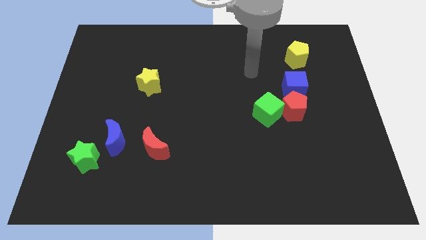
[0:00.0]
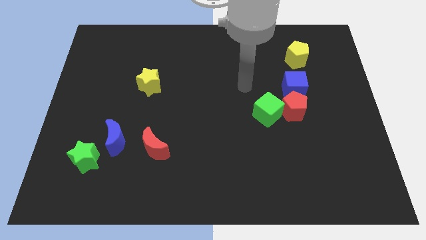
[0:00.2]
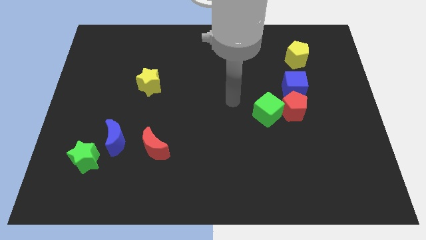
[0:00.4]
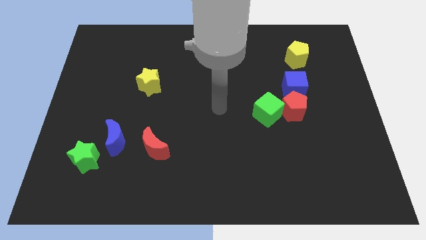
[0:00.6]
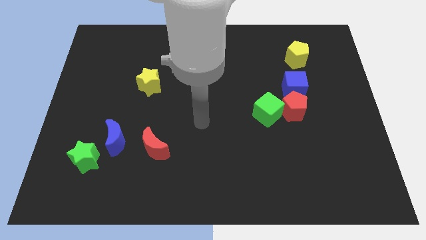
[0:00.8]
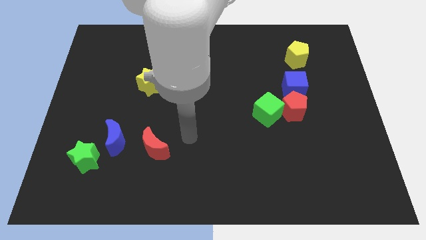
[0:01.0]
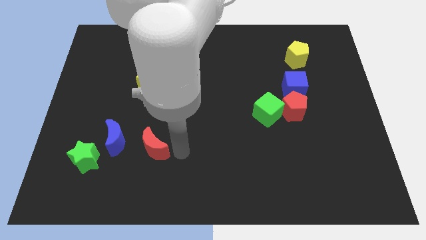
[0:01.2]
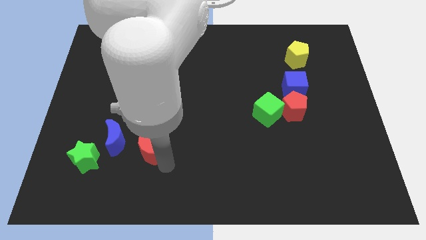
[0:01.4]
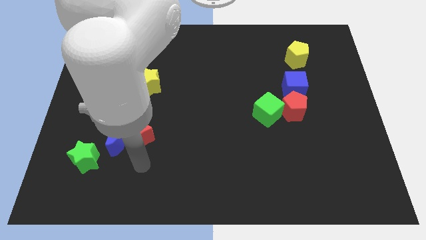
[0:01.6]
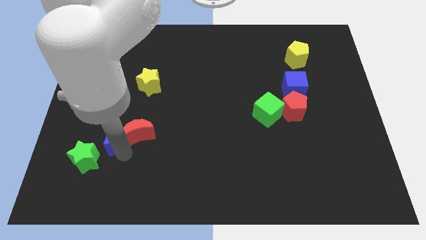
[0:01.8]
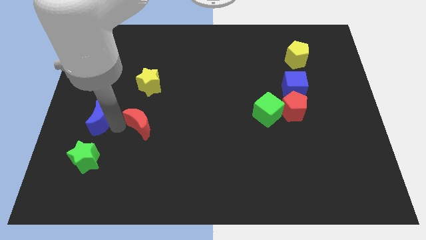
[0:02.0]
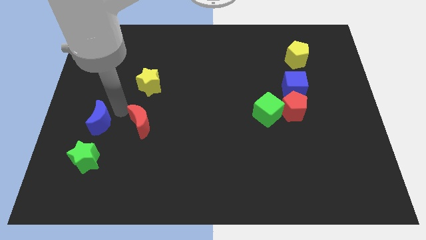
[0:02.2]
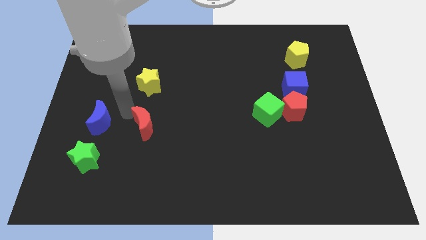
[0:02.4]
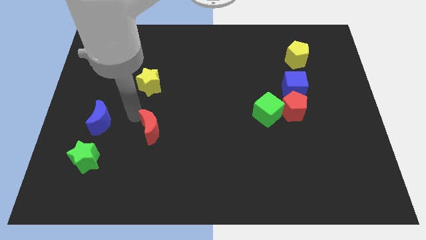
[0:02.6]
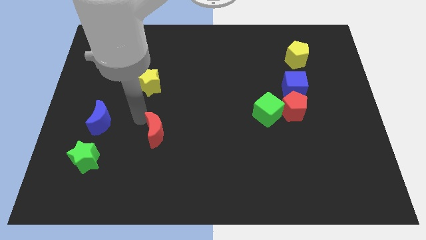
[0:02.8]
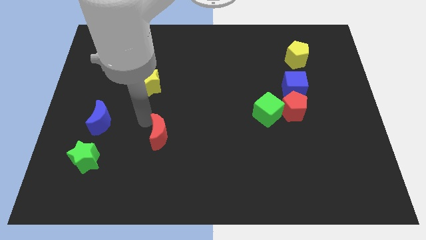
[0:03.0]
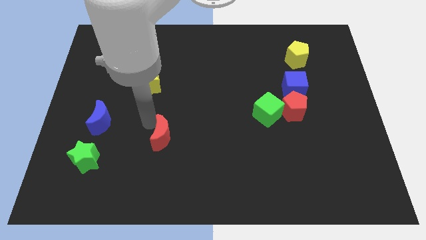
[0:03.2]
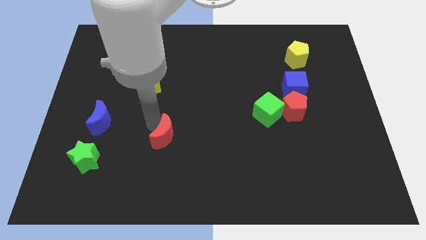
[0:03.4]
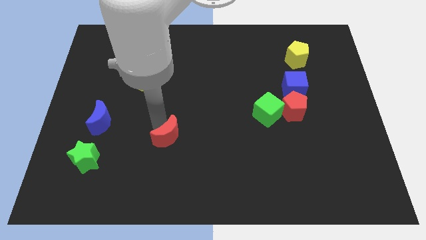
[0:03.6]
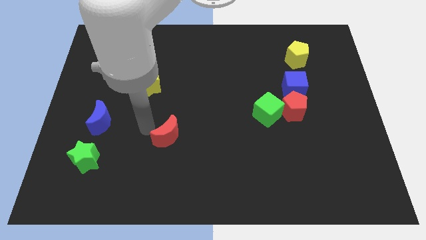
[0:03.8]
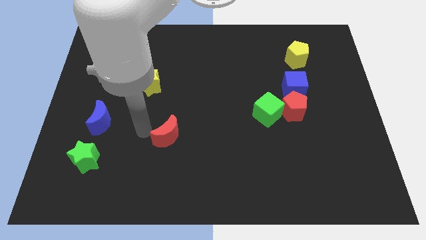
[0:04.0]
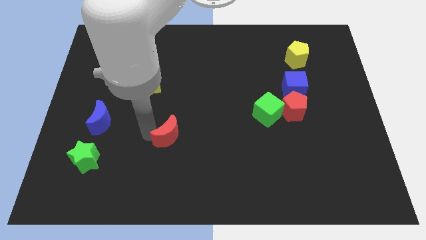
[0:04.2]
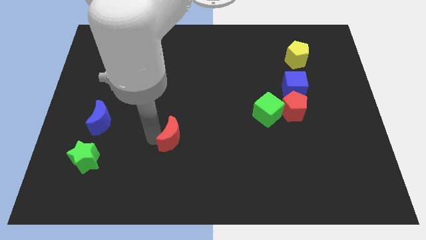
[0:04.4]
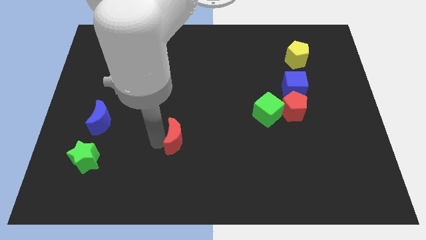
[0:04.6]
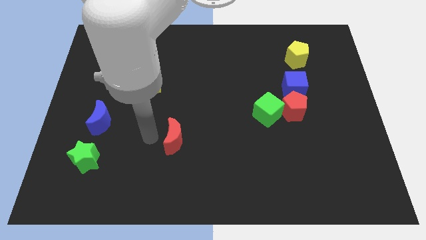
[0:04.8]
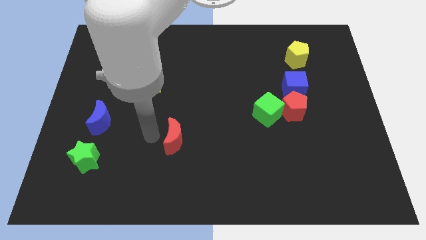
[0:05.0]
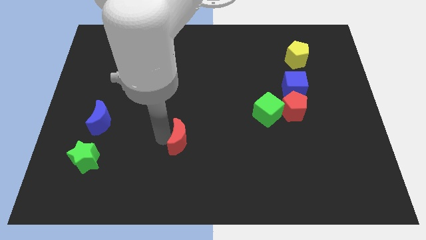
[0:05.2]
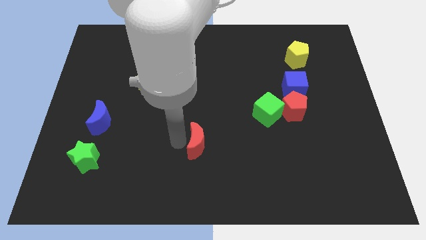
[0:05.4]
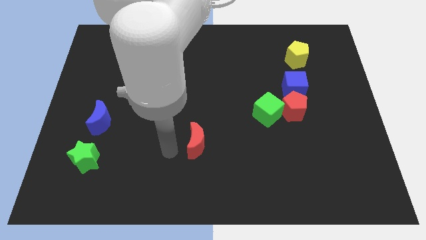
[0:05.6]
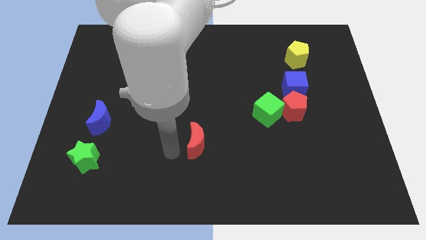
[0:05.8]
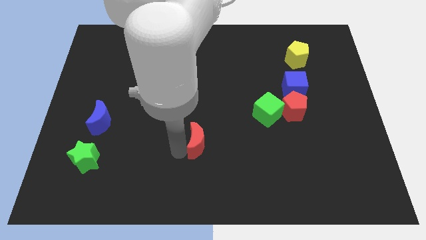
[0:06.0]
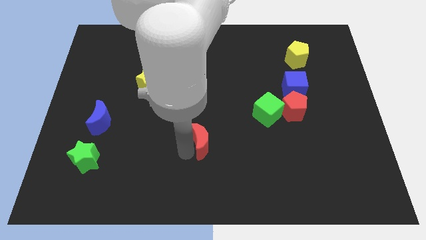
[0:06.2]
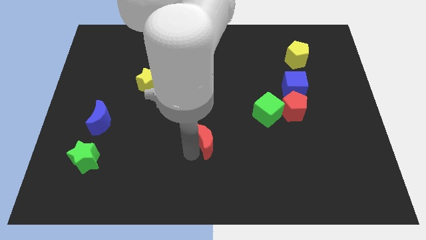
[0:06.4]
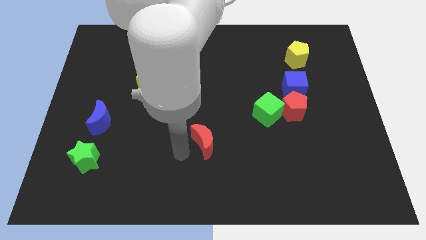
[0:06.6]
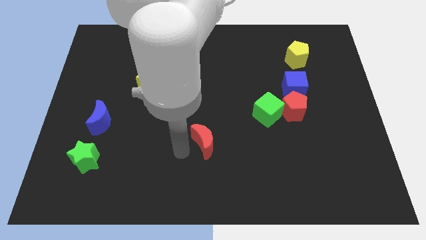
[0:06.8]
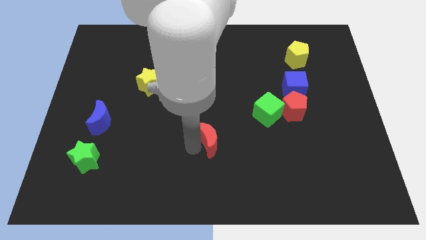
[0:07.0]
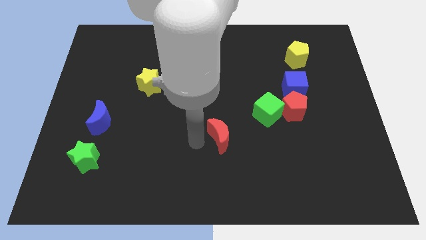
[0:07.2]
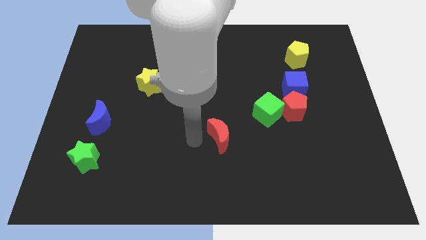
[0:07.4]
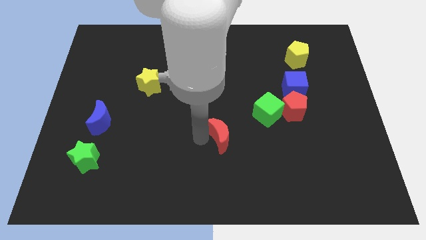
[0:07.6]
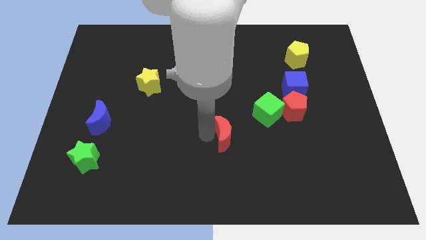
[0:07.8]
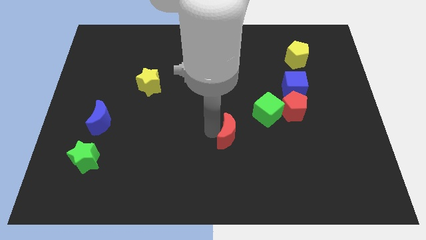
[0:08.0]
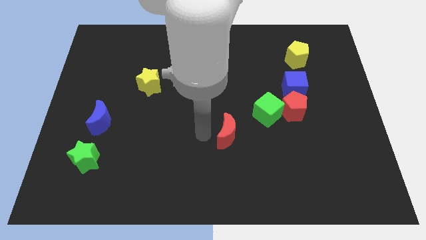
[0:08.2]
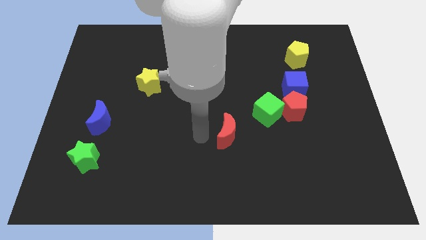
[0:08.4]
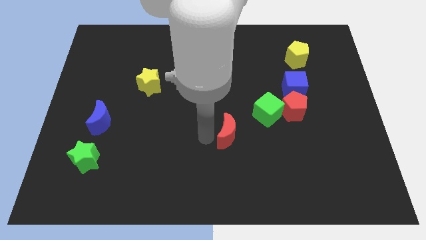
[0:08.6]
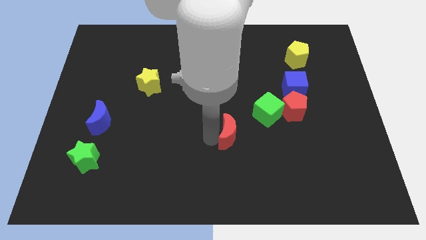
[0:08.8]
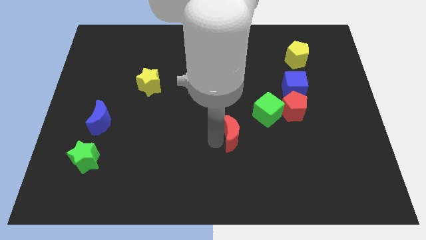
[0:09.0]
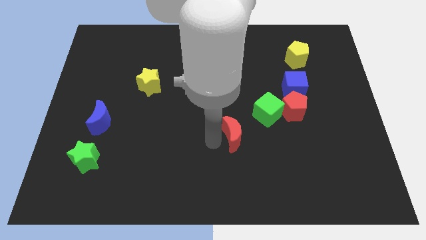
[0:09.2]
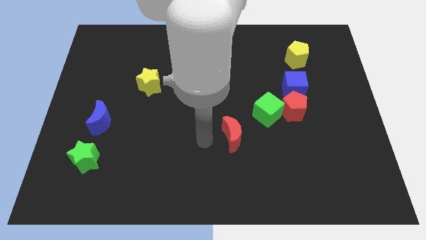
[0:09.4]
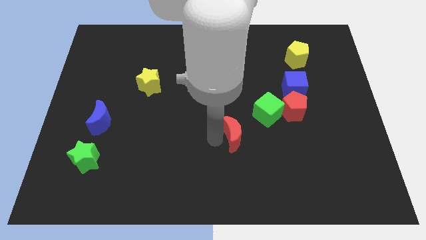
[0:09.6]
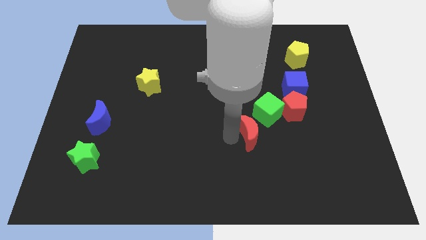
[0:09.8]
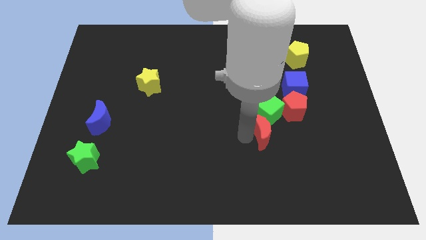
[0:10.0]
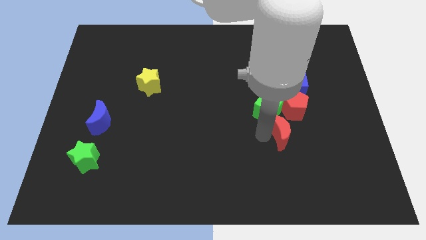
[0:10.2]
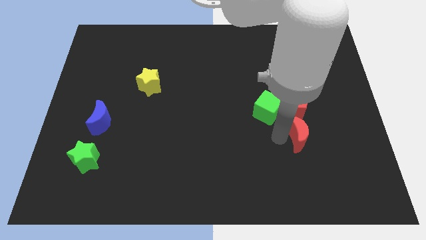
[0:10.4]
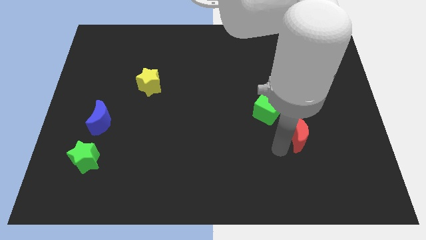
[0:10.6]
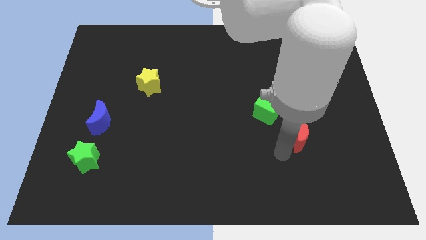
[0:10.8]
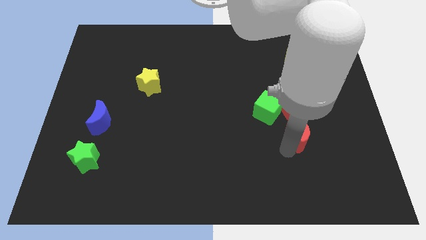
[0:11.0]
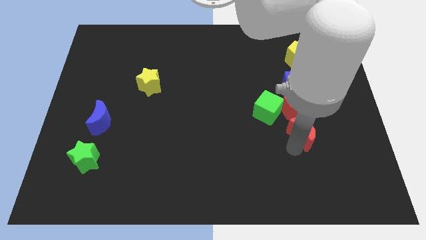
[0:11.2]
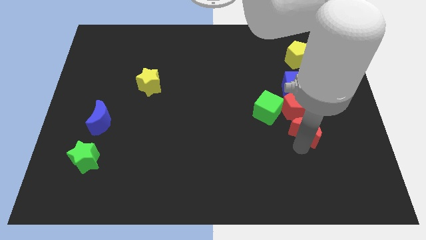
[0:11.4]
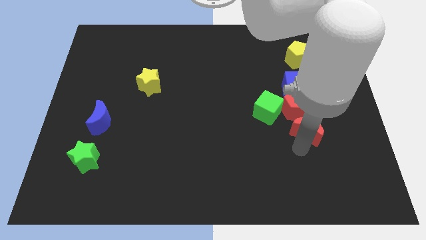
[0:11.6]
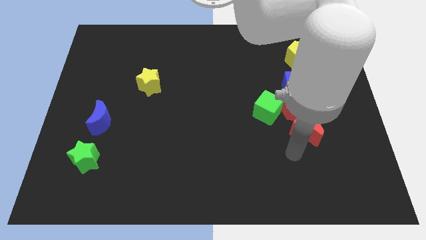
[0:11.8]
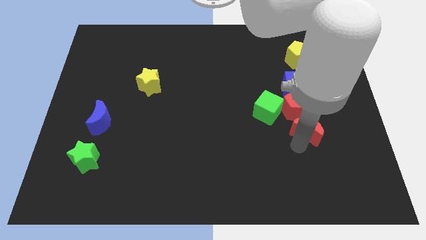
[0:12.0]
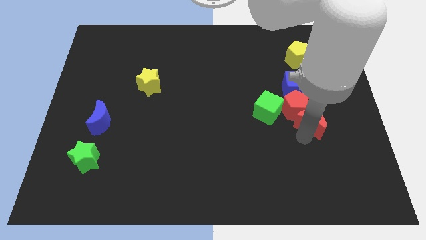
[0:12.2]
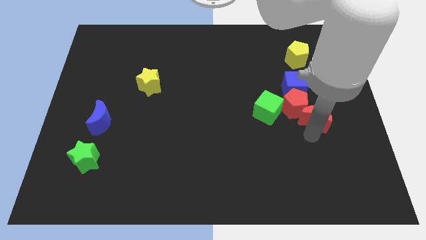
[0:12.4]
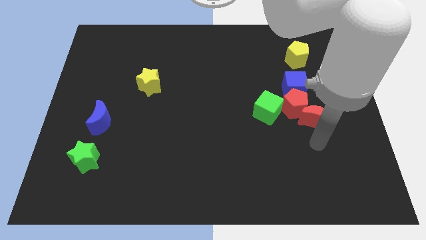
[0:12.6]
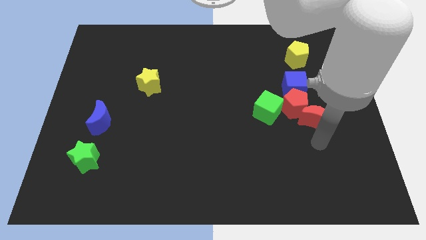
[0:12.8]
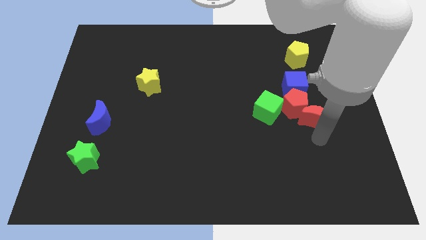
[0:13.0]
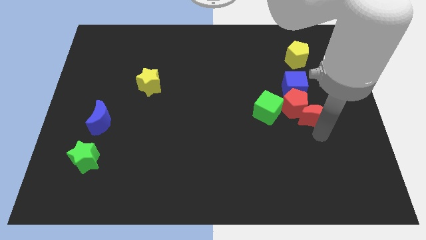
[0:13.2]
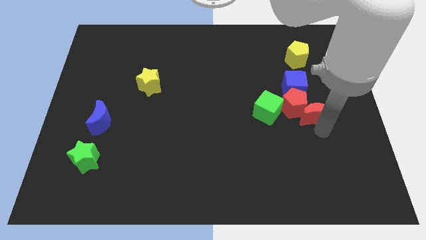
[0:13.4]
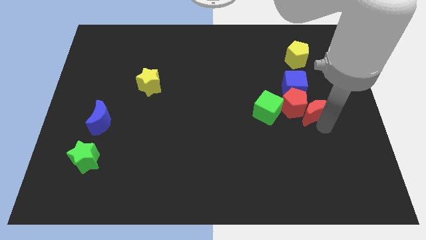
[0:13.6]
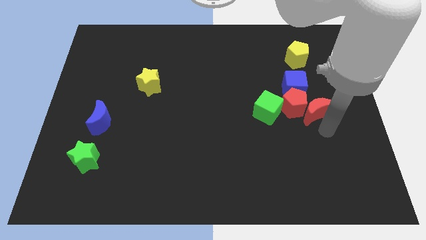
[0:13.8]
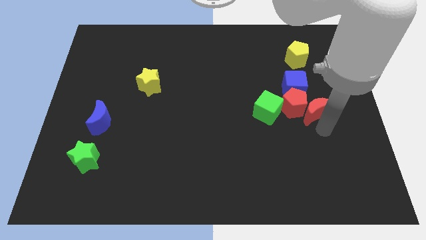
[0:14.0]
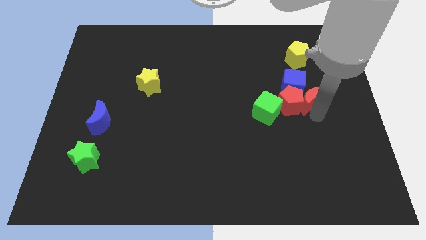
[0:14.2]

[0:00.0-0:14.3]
push the red moon to the bottom side of the yellow pentagon

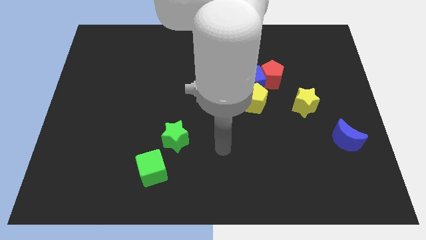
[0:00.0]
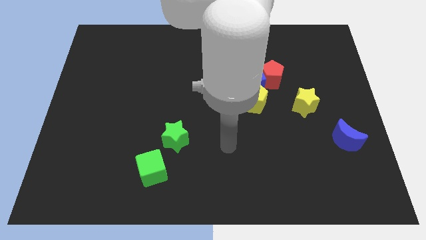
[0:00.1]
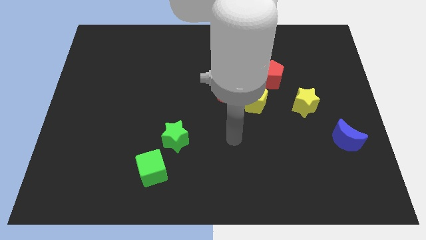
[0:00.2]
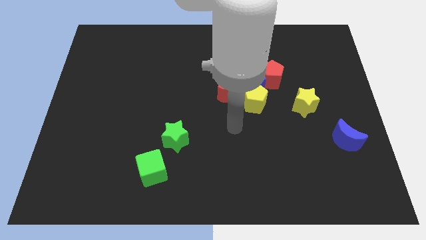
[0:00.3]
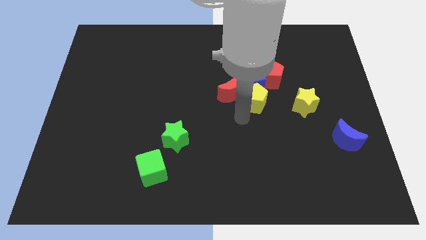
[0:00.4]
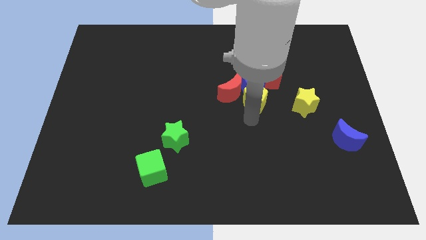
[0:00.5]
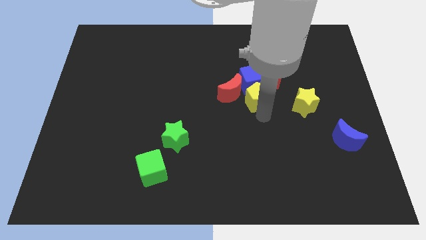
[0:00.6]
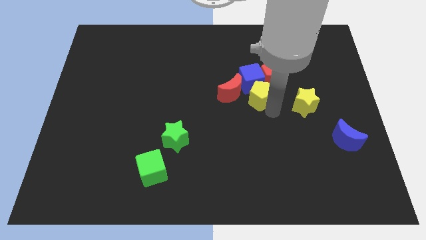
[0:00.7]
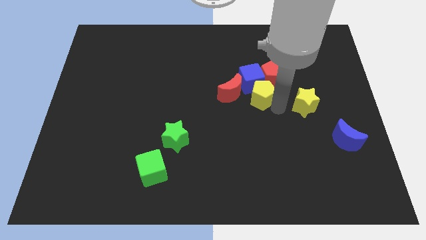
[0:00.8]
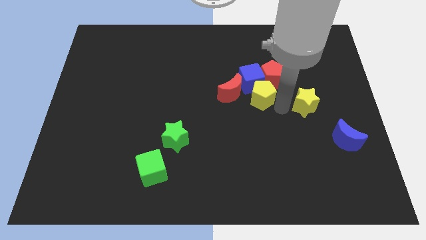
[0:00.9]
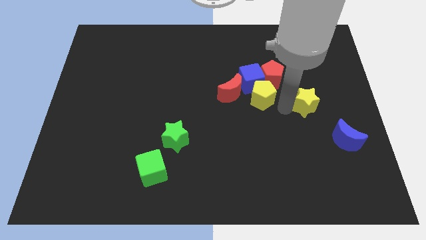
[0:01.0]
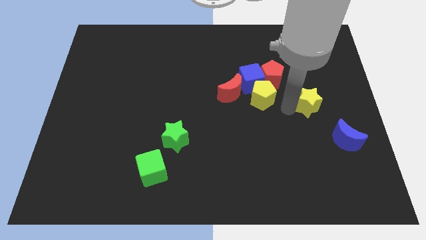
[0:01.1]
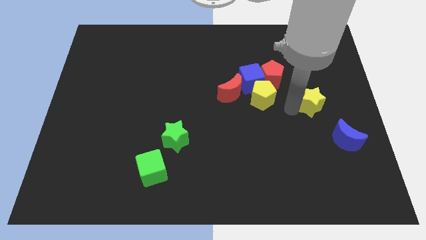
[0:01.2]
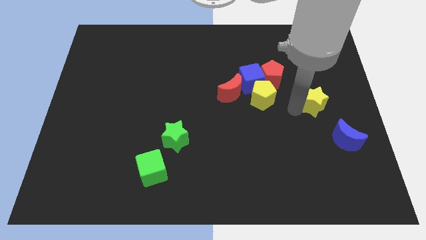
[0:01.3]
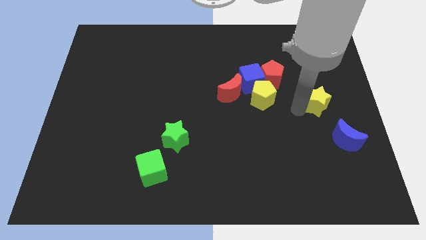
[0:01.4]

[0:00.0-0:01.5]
slide the yellow star to the top side of the blue moon
